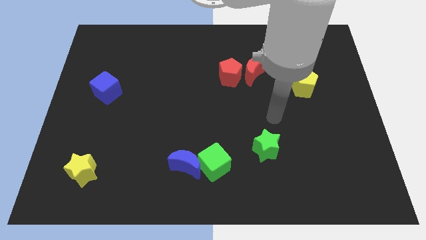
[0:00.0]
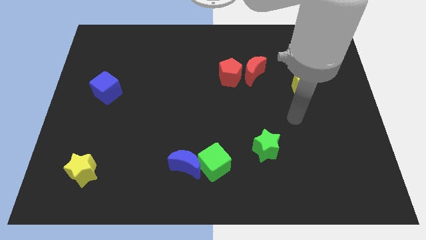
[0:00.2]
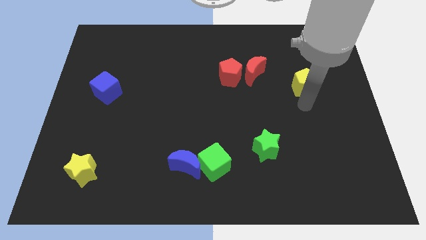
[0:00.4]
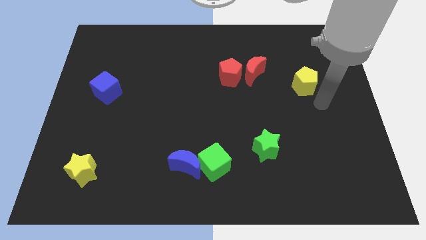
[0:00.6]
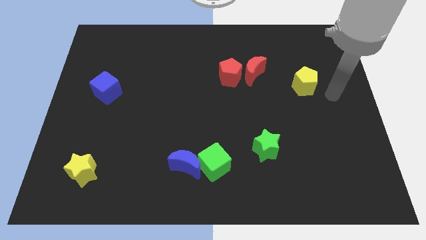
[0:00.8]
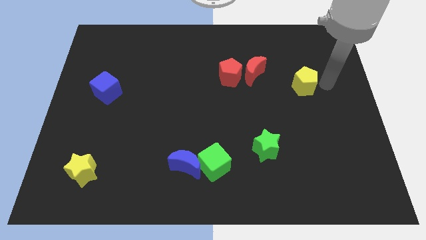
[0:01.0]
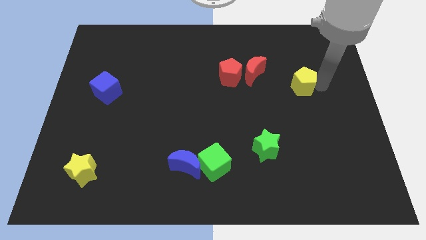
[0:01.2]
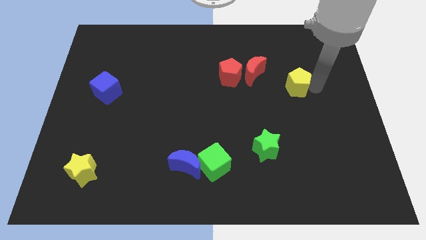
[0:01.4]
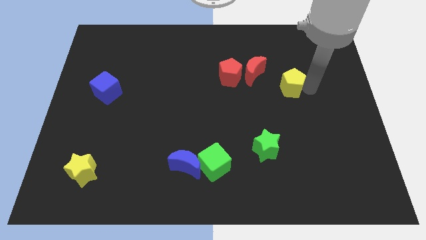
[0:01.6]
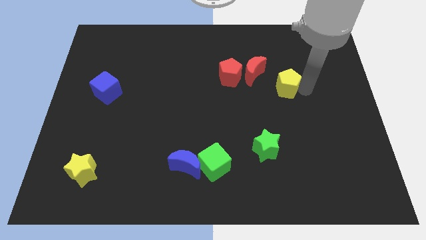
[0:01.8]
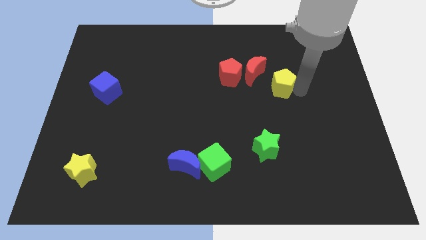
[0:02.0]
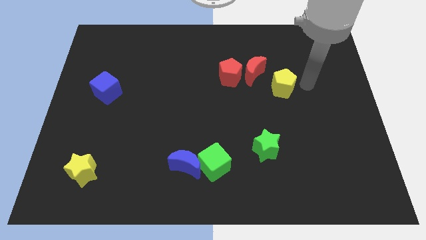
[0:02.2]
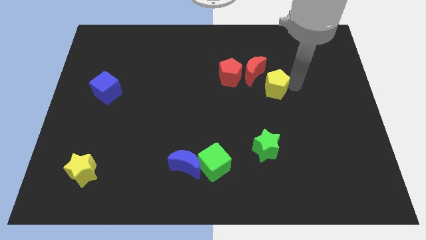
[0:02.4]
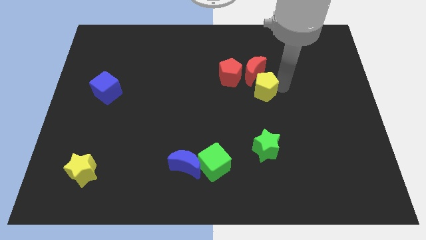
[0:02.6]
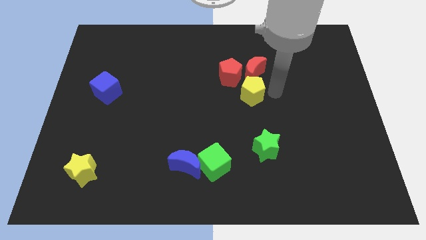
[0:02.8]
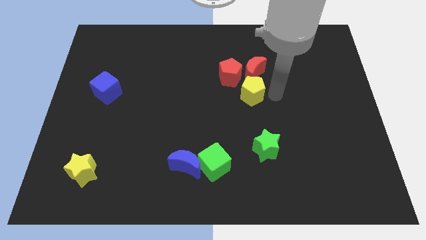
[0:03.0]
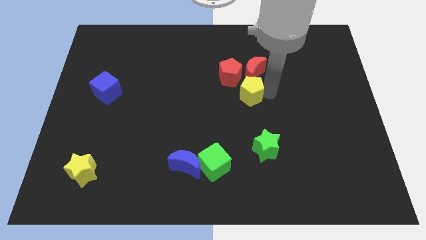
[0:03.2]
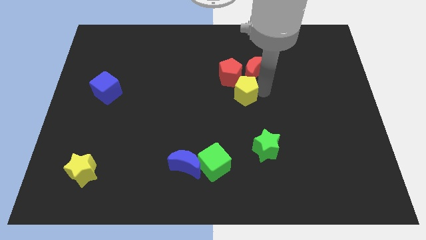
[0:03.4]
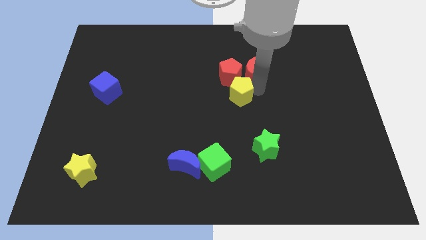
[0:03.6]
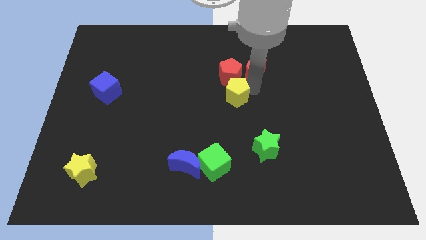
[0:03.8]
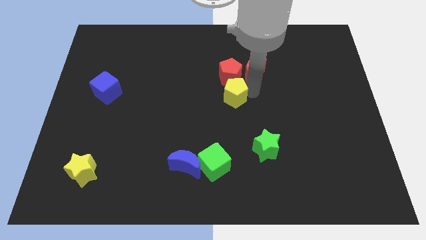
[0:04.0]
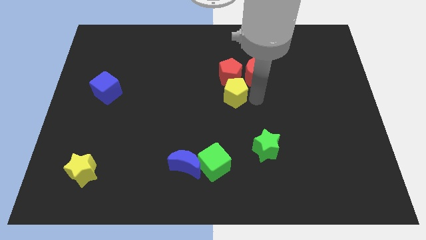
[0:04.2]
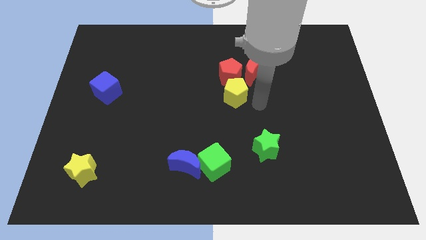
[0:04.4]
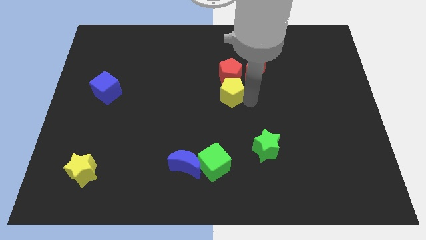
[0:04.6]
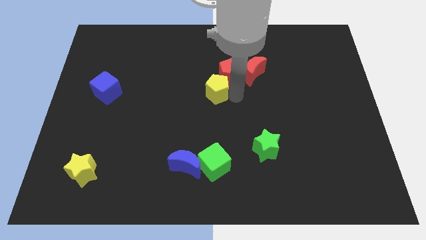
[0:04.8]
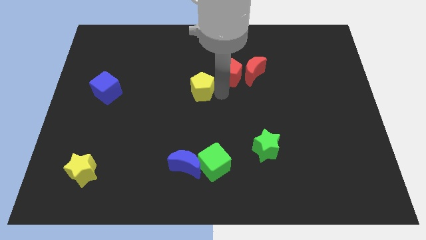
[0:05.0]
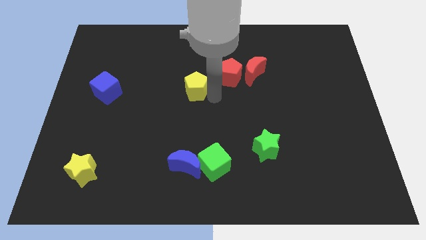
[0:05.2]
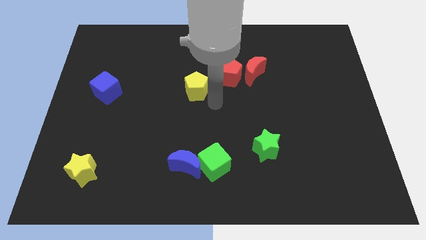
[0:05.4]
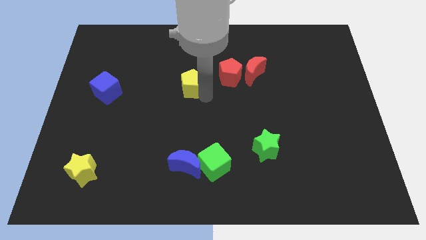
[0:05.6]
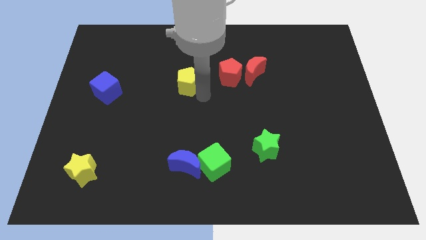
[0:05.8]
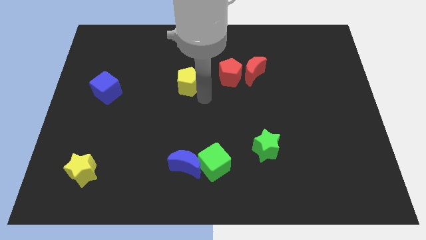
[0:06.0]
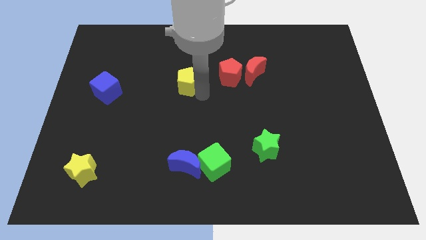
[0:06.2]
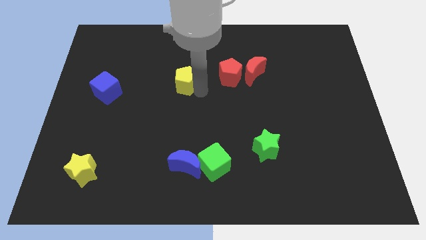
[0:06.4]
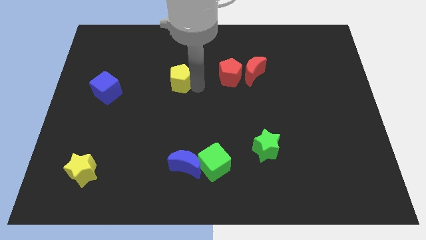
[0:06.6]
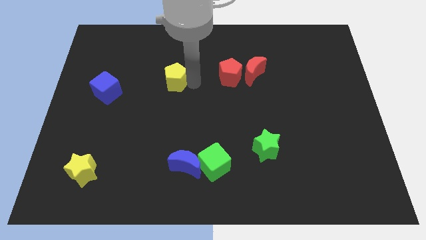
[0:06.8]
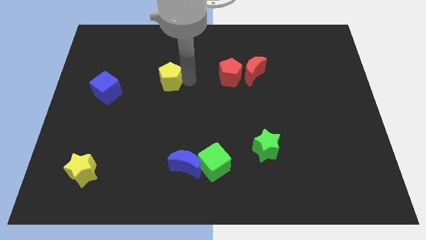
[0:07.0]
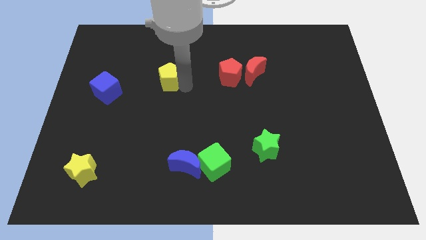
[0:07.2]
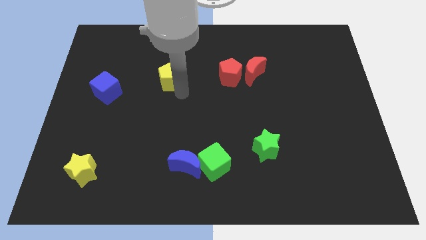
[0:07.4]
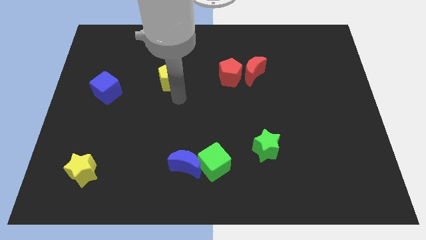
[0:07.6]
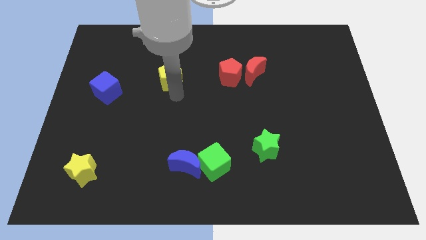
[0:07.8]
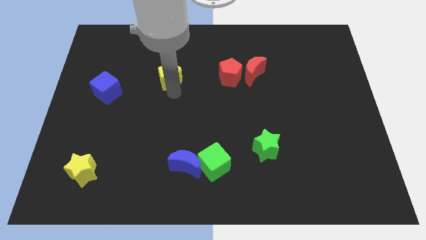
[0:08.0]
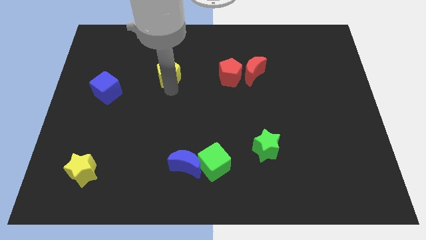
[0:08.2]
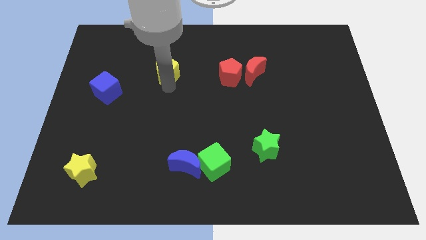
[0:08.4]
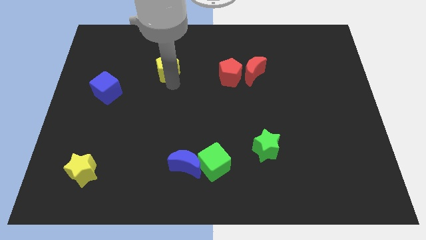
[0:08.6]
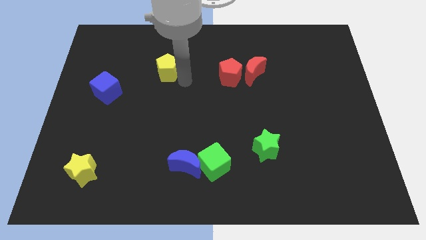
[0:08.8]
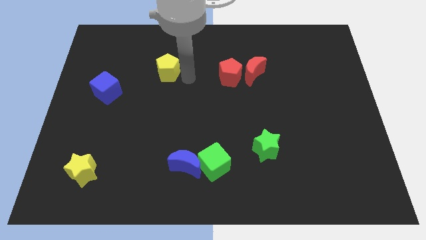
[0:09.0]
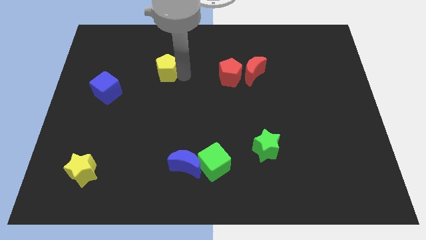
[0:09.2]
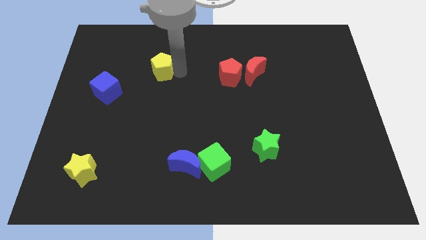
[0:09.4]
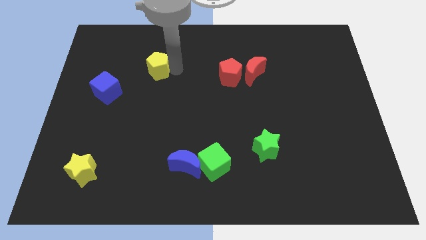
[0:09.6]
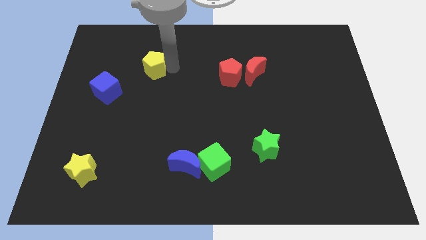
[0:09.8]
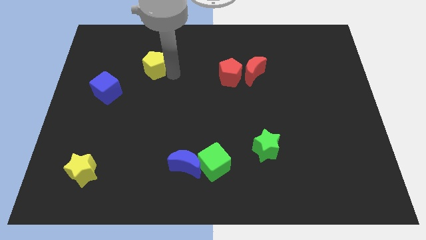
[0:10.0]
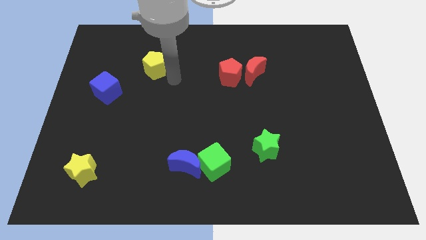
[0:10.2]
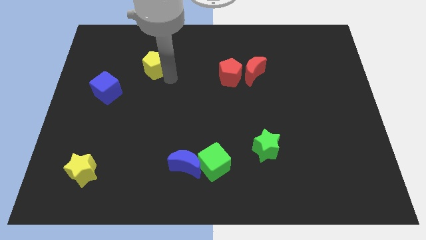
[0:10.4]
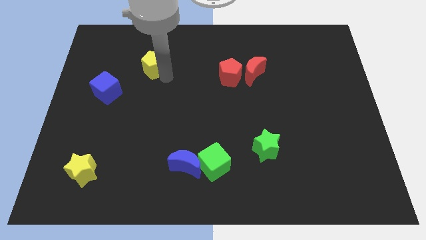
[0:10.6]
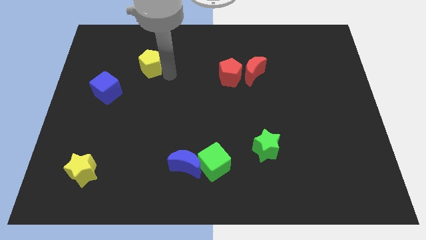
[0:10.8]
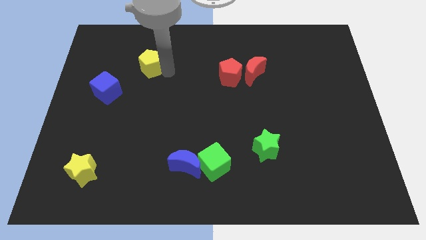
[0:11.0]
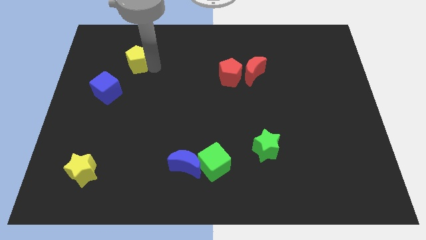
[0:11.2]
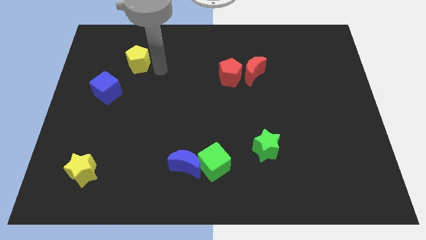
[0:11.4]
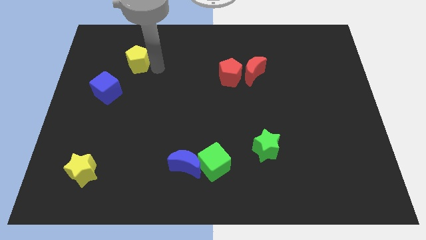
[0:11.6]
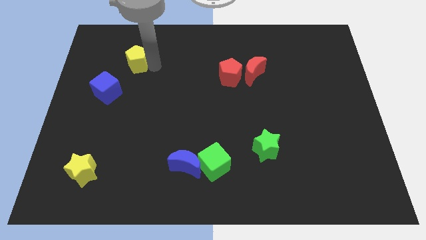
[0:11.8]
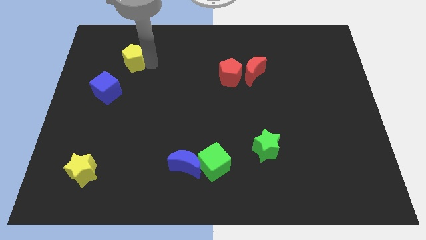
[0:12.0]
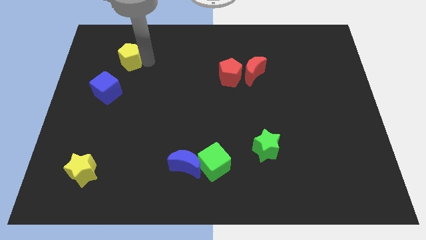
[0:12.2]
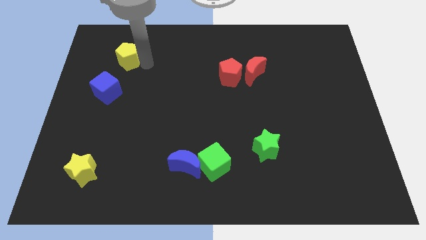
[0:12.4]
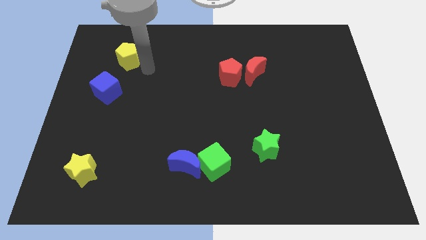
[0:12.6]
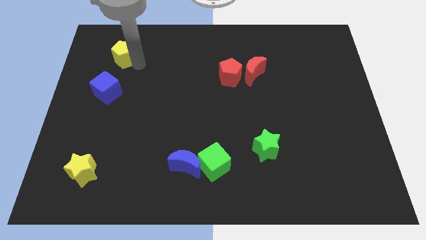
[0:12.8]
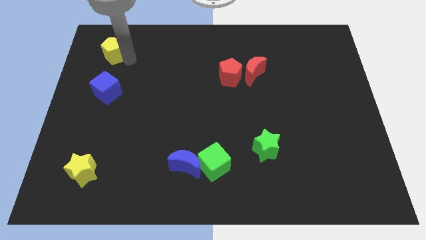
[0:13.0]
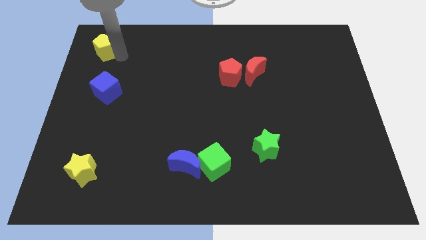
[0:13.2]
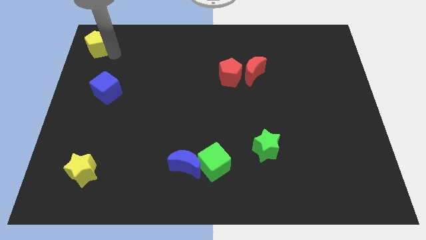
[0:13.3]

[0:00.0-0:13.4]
move the yellow pentagon to the top left corner
